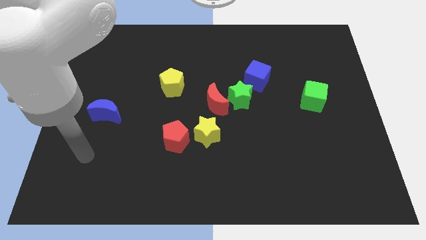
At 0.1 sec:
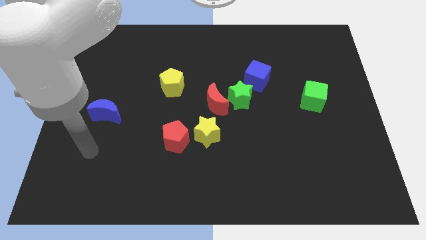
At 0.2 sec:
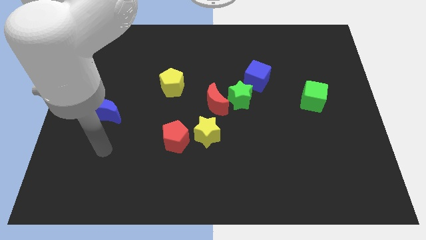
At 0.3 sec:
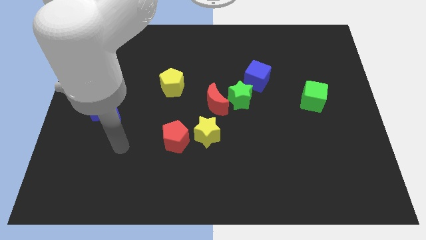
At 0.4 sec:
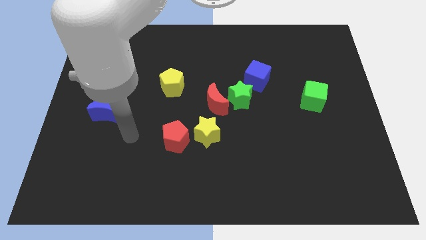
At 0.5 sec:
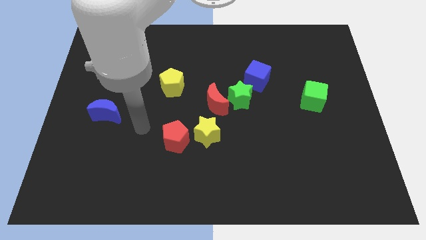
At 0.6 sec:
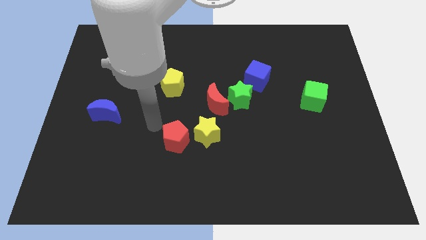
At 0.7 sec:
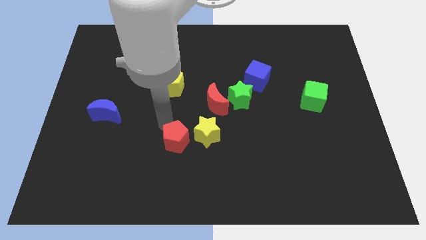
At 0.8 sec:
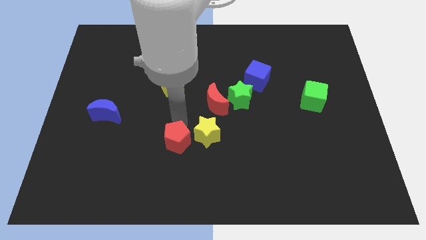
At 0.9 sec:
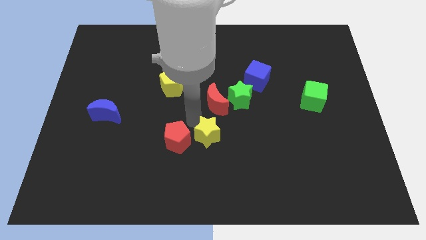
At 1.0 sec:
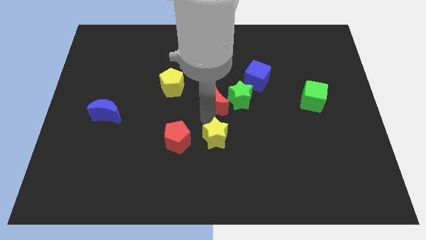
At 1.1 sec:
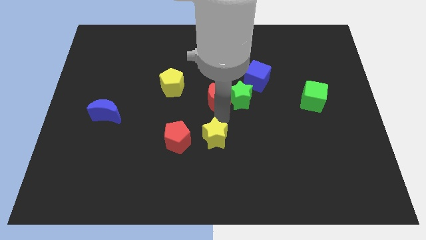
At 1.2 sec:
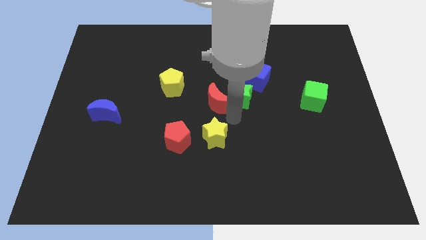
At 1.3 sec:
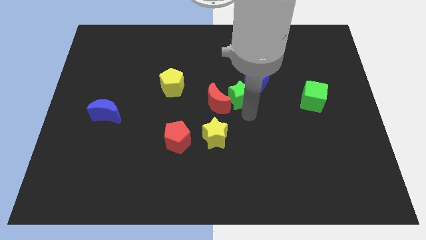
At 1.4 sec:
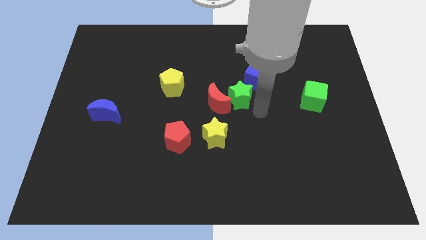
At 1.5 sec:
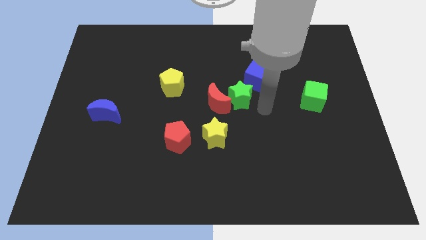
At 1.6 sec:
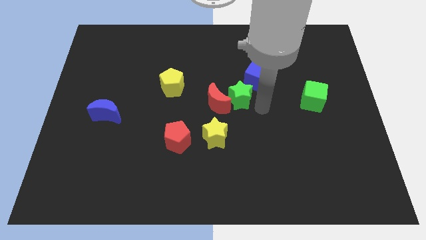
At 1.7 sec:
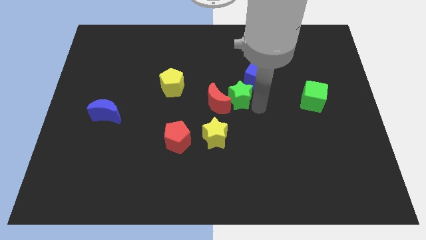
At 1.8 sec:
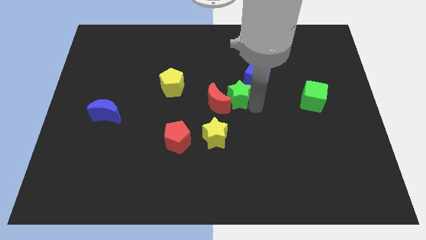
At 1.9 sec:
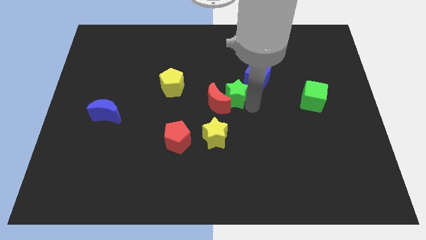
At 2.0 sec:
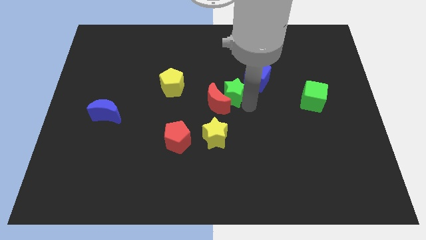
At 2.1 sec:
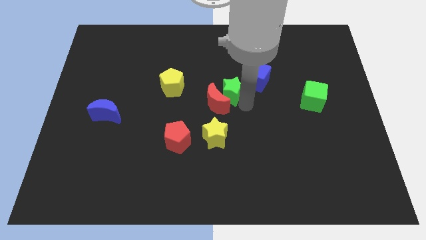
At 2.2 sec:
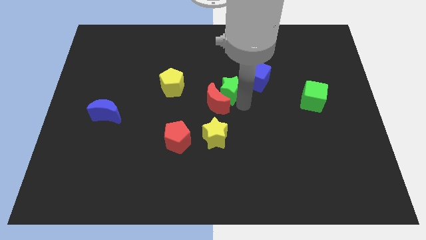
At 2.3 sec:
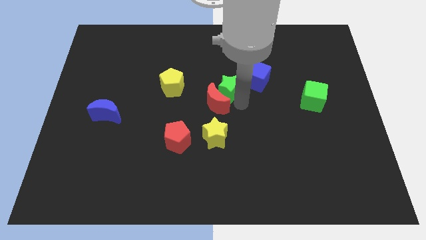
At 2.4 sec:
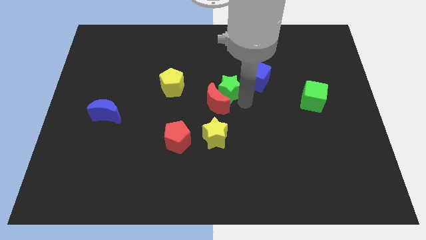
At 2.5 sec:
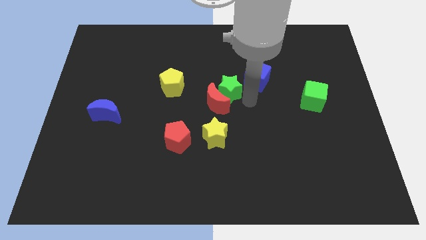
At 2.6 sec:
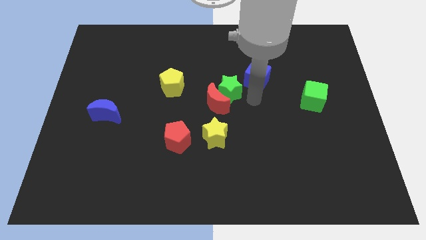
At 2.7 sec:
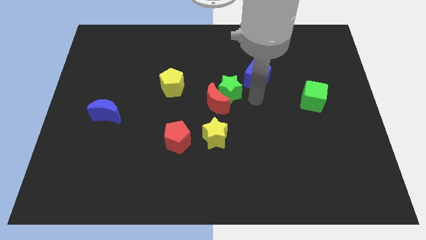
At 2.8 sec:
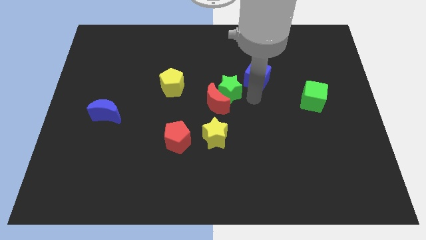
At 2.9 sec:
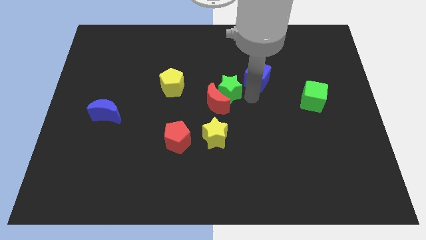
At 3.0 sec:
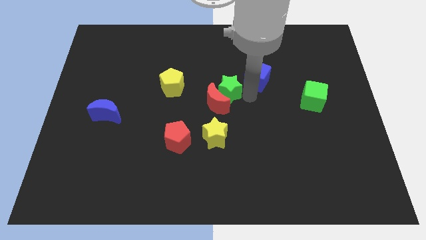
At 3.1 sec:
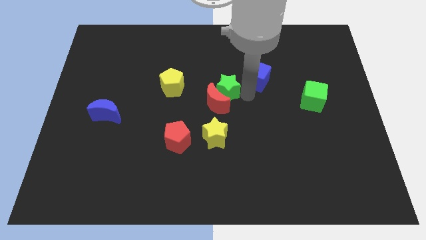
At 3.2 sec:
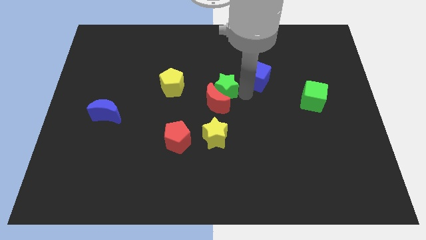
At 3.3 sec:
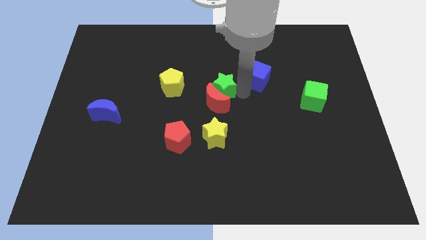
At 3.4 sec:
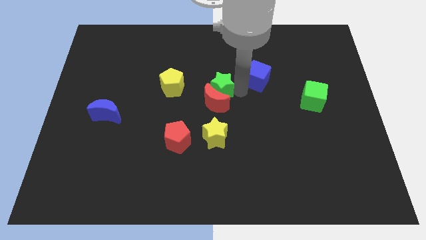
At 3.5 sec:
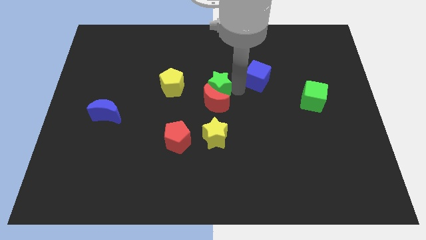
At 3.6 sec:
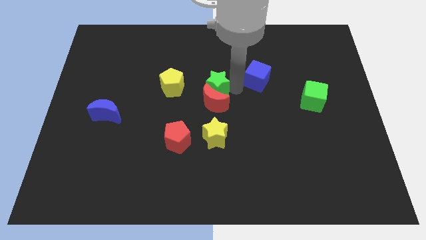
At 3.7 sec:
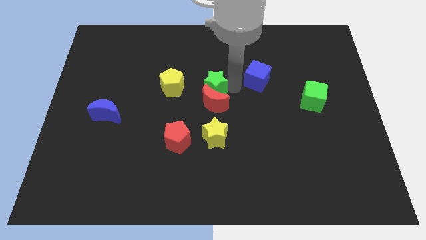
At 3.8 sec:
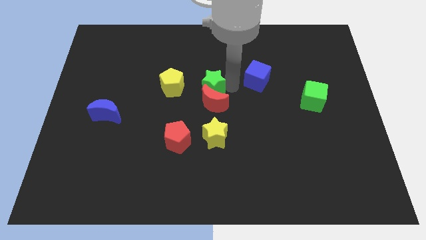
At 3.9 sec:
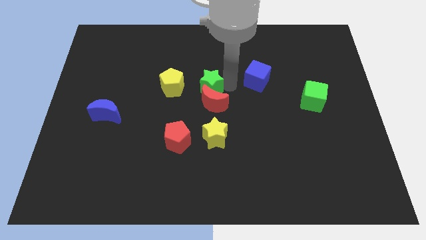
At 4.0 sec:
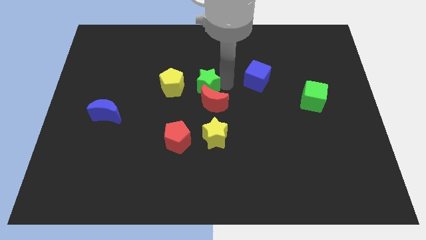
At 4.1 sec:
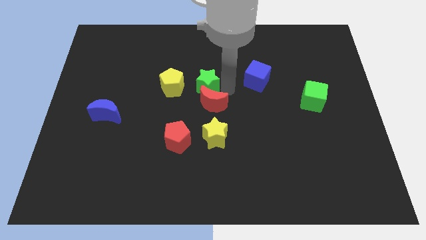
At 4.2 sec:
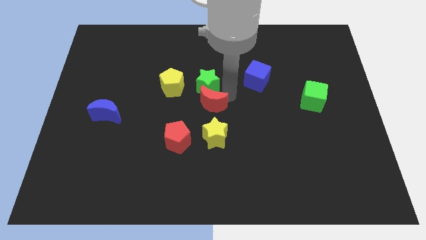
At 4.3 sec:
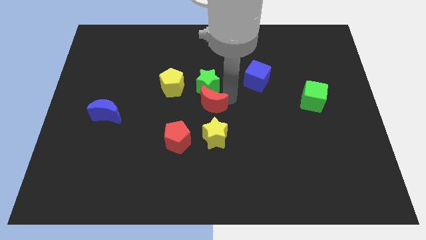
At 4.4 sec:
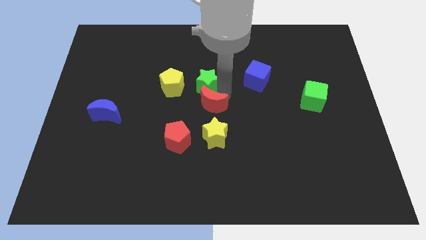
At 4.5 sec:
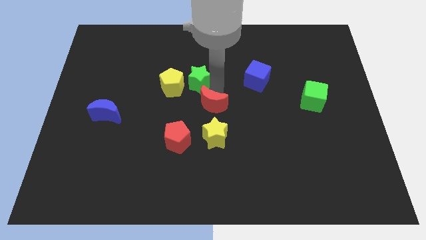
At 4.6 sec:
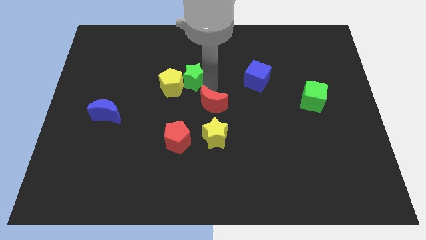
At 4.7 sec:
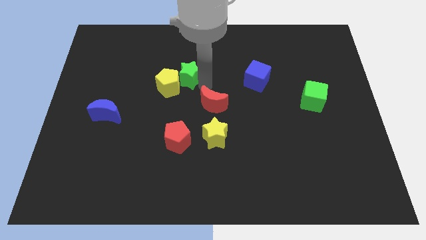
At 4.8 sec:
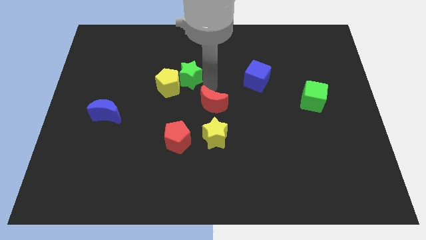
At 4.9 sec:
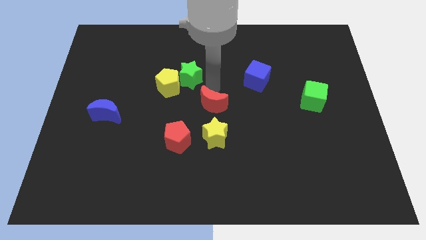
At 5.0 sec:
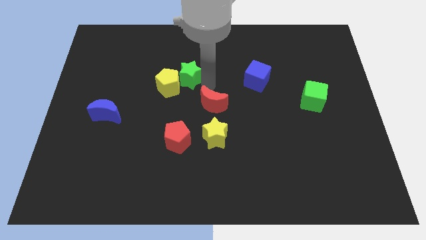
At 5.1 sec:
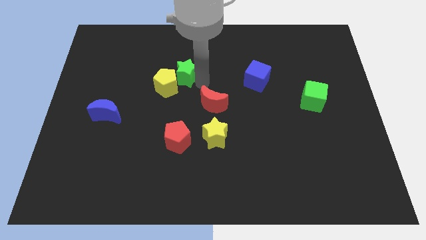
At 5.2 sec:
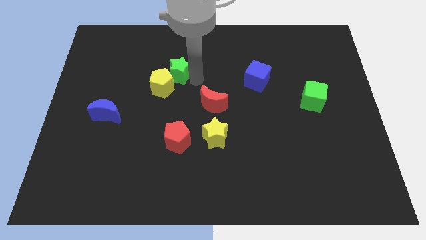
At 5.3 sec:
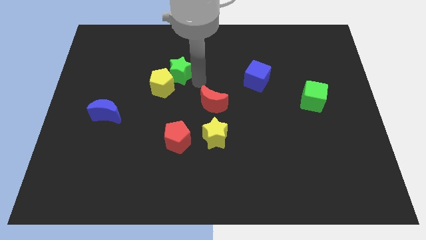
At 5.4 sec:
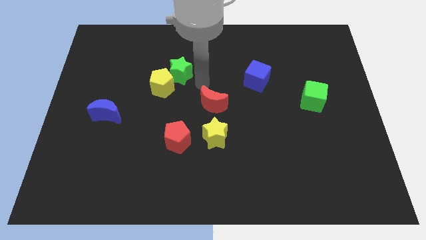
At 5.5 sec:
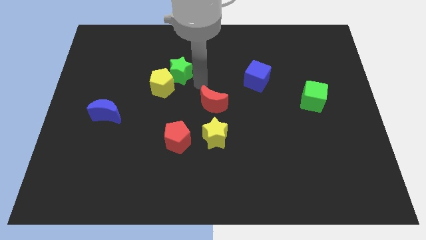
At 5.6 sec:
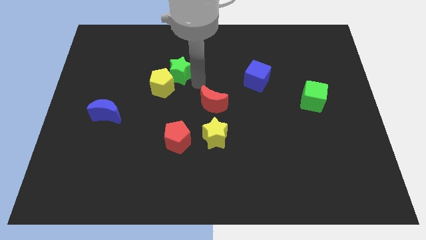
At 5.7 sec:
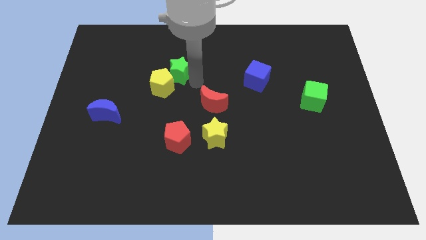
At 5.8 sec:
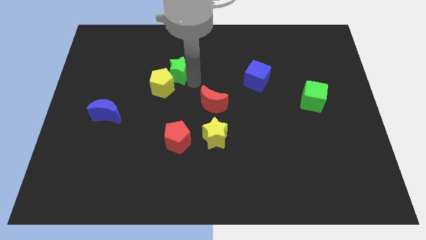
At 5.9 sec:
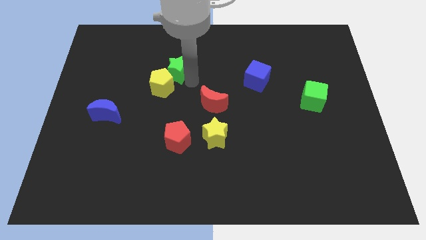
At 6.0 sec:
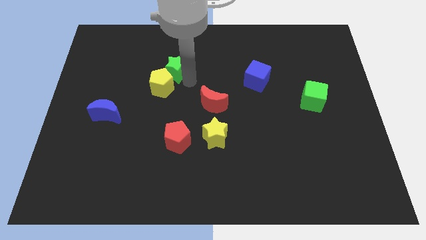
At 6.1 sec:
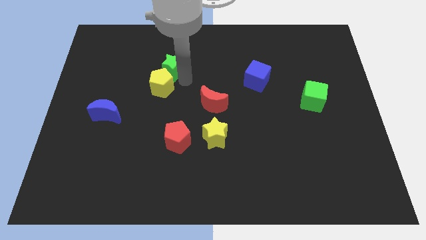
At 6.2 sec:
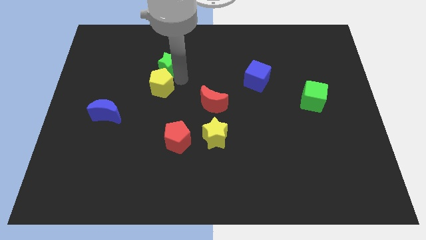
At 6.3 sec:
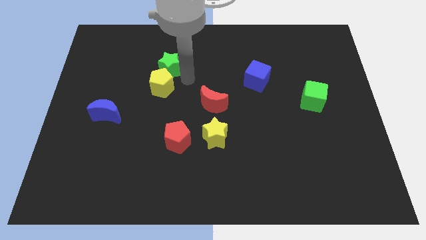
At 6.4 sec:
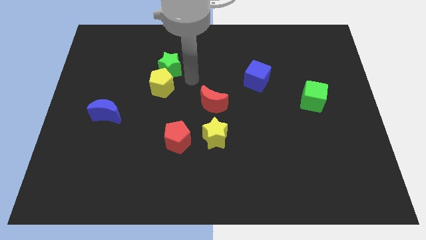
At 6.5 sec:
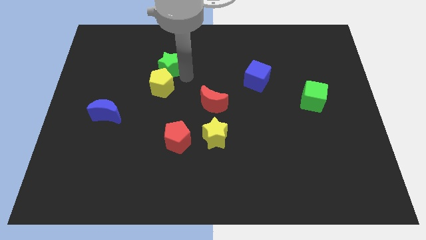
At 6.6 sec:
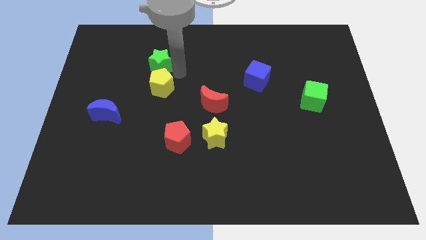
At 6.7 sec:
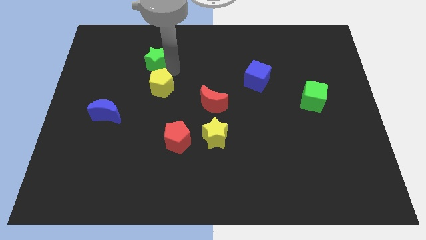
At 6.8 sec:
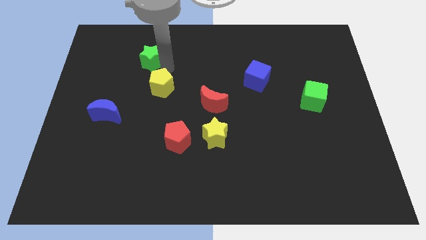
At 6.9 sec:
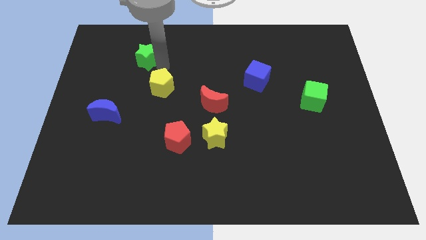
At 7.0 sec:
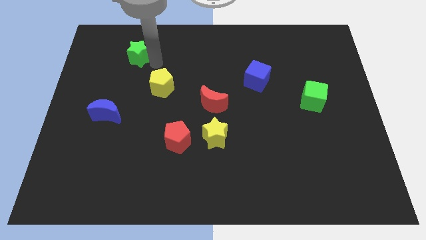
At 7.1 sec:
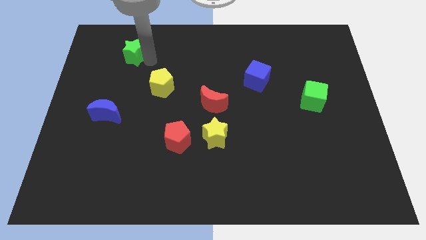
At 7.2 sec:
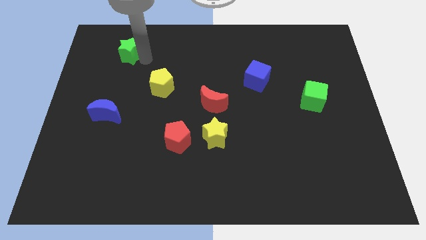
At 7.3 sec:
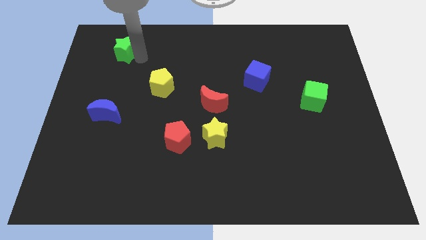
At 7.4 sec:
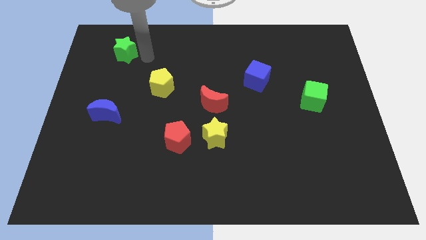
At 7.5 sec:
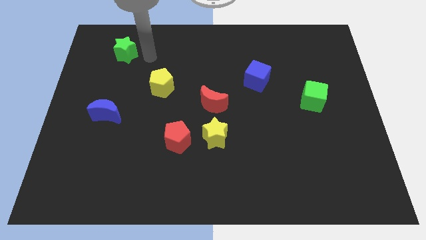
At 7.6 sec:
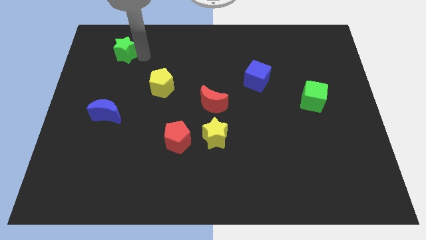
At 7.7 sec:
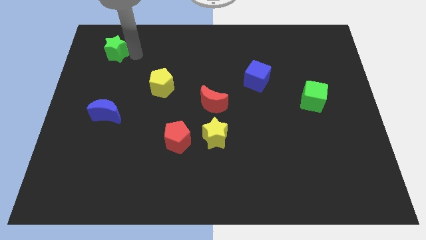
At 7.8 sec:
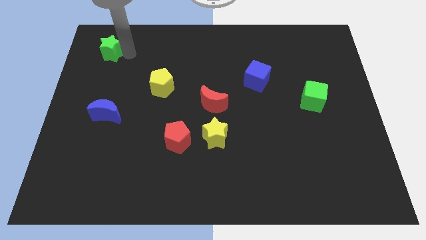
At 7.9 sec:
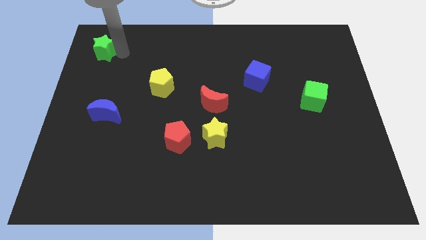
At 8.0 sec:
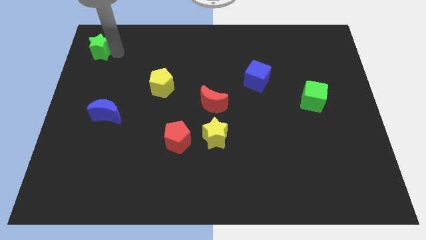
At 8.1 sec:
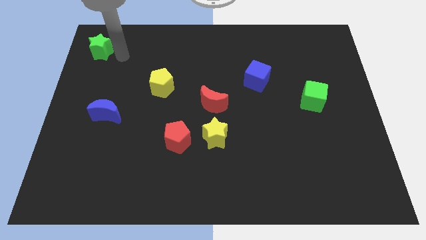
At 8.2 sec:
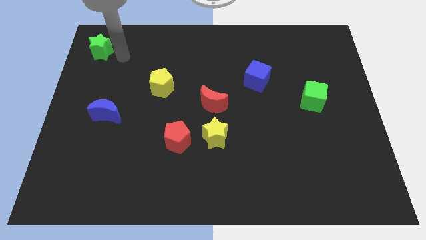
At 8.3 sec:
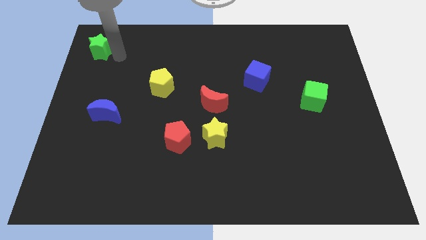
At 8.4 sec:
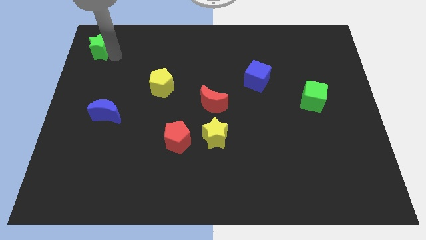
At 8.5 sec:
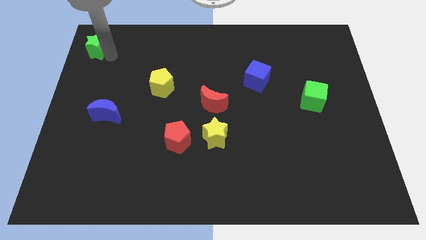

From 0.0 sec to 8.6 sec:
put the green star to the top left corner
